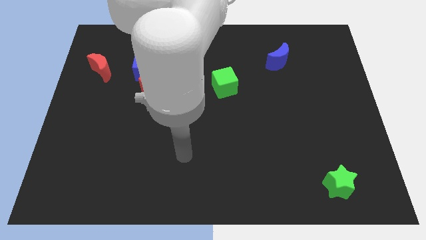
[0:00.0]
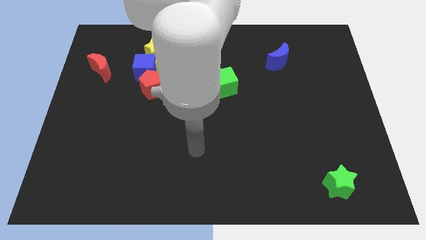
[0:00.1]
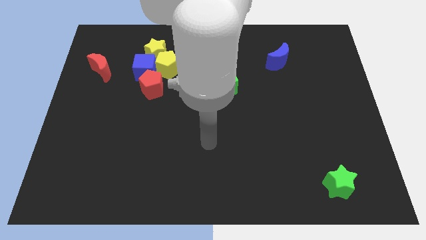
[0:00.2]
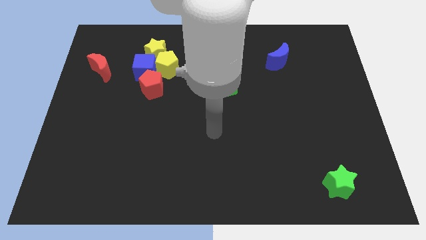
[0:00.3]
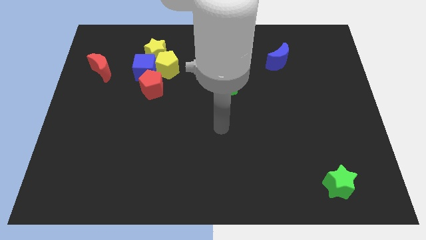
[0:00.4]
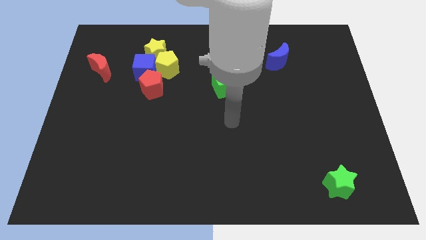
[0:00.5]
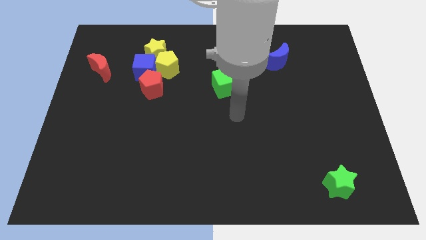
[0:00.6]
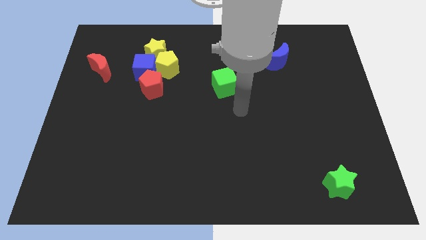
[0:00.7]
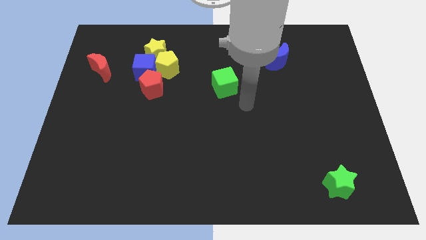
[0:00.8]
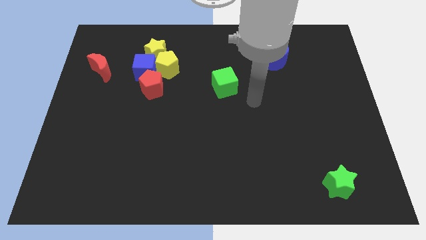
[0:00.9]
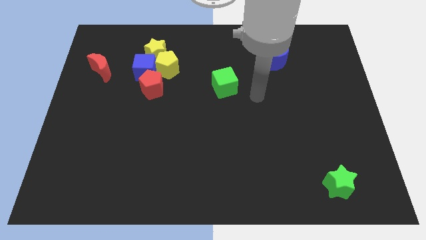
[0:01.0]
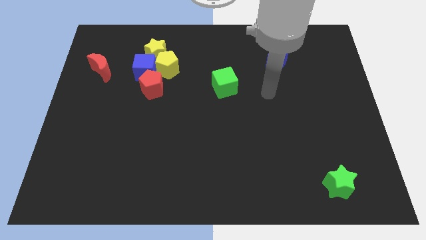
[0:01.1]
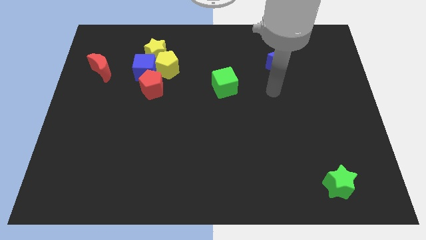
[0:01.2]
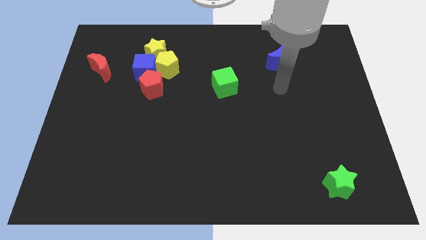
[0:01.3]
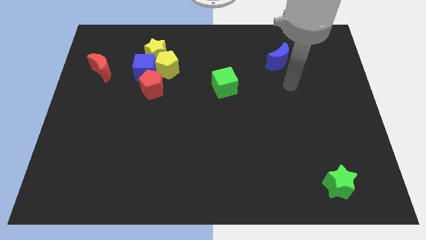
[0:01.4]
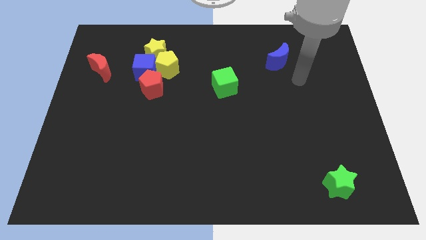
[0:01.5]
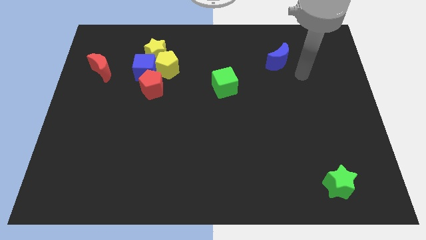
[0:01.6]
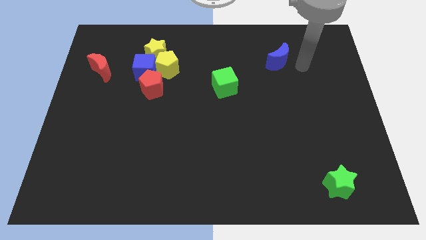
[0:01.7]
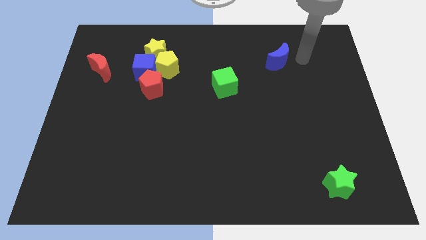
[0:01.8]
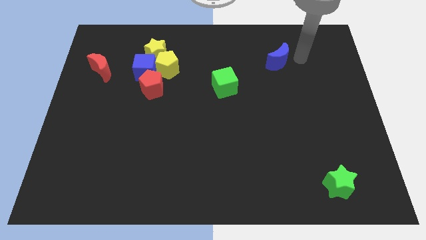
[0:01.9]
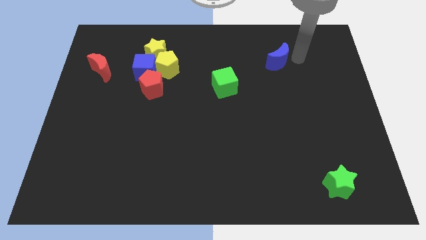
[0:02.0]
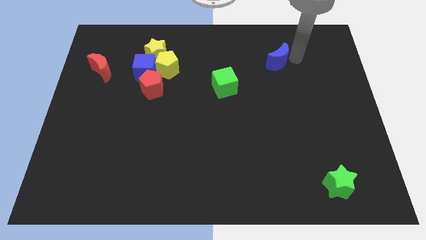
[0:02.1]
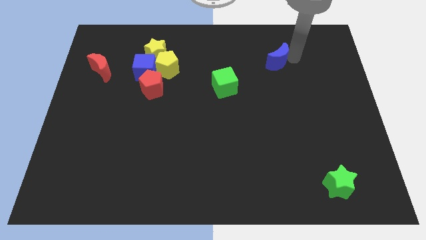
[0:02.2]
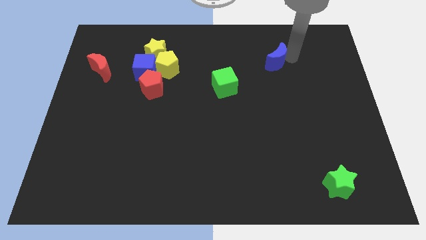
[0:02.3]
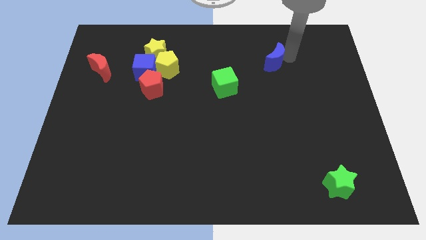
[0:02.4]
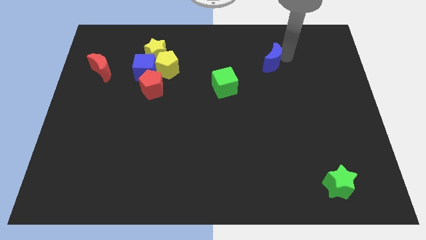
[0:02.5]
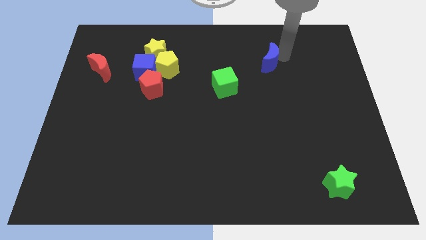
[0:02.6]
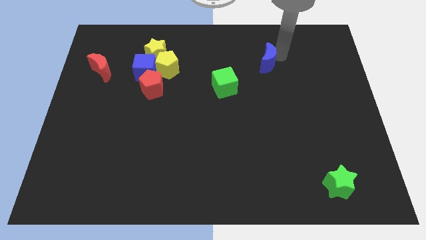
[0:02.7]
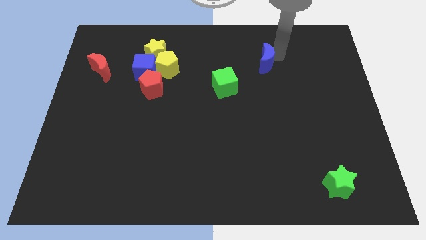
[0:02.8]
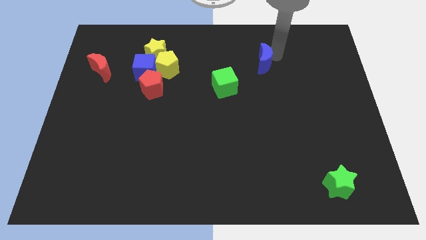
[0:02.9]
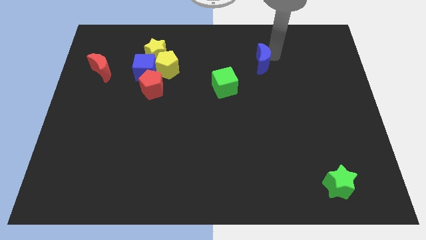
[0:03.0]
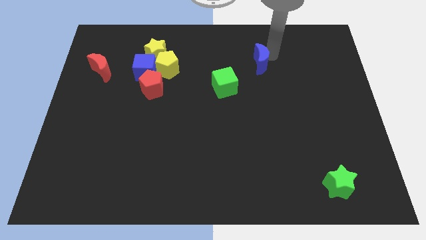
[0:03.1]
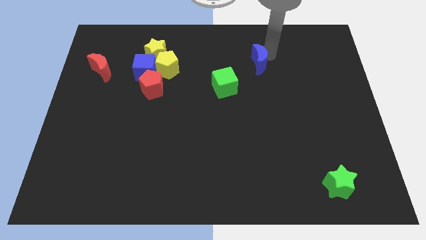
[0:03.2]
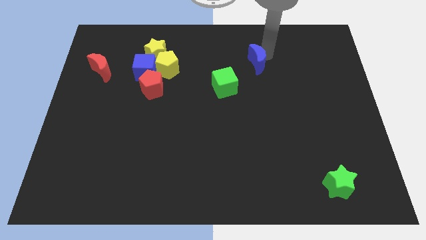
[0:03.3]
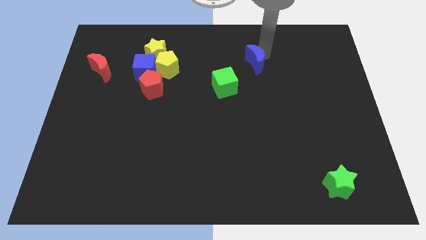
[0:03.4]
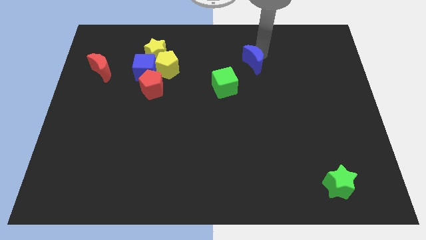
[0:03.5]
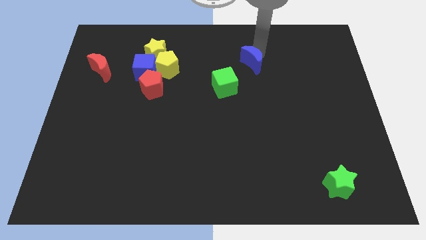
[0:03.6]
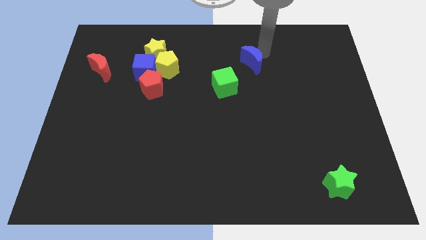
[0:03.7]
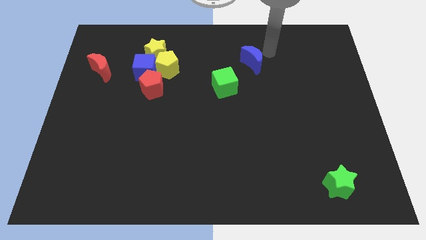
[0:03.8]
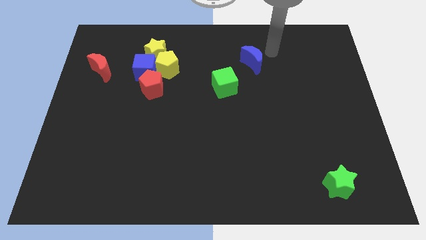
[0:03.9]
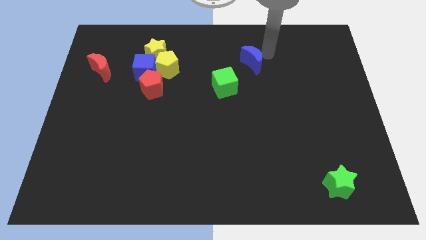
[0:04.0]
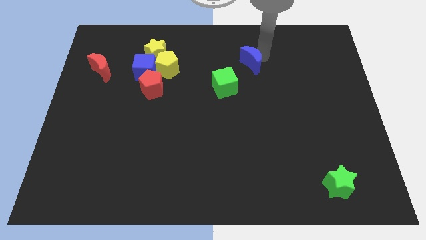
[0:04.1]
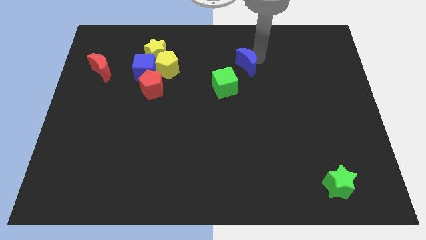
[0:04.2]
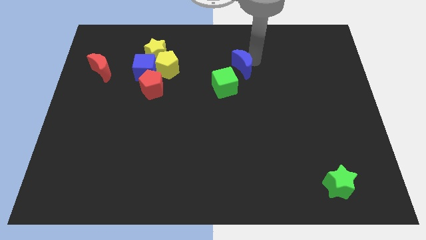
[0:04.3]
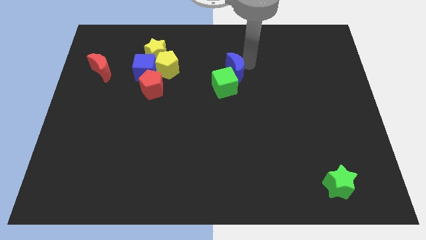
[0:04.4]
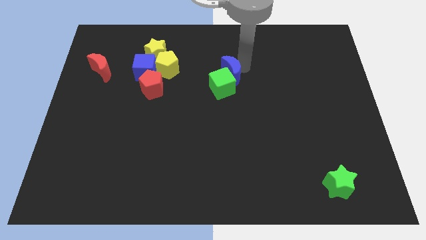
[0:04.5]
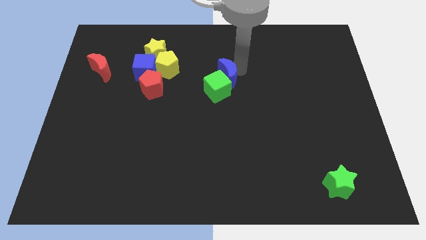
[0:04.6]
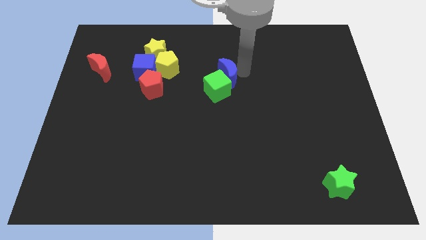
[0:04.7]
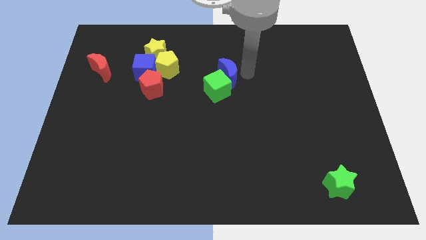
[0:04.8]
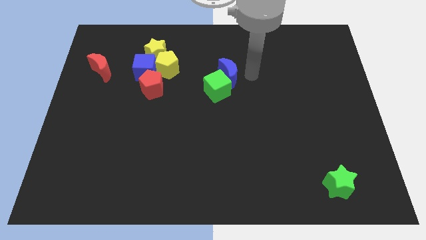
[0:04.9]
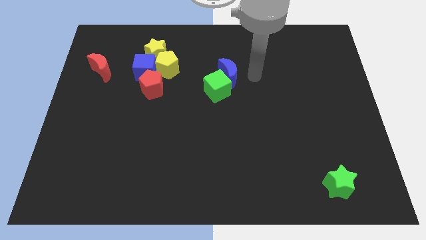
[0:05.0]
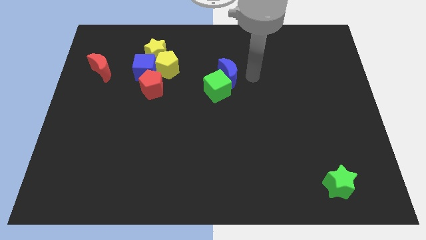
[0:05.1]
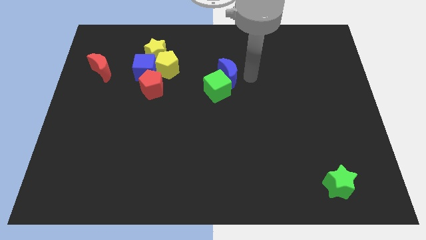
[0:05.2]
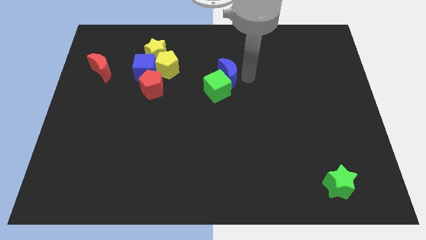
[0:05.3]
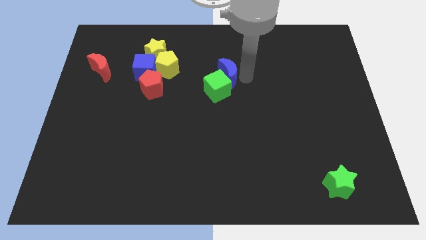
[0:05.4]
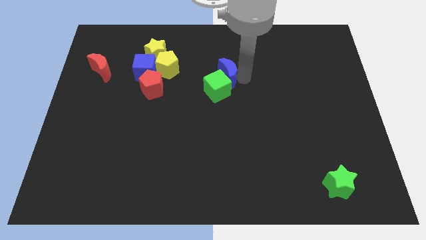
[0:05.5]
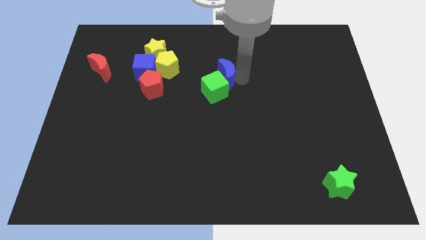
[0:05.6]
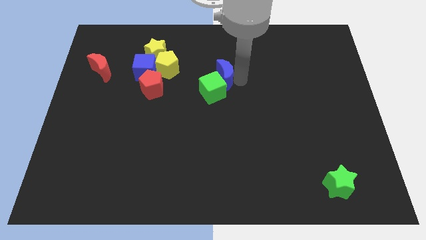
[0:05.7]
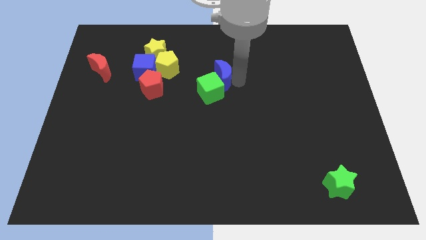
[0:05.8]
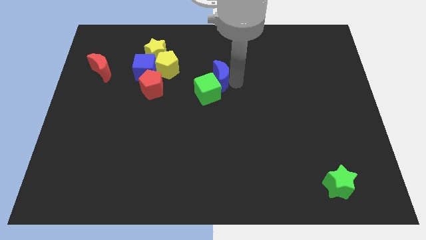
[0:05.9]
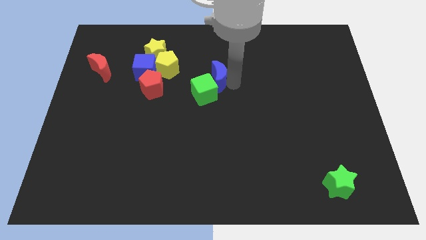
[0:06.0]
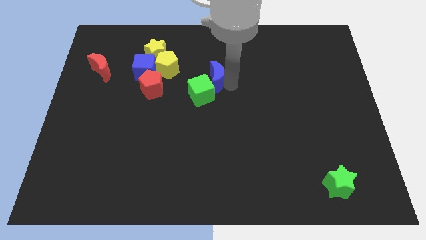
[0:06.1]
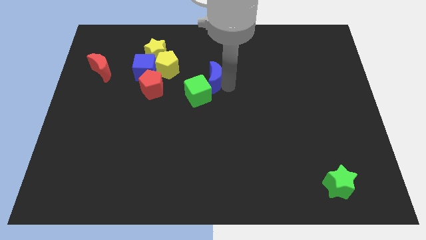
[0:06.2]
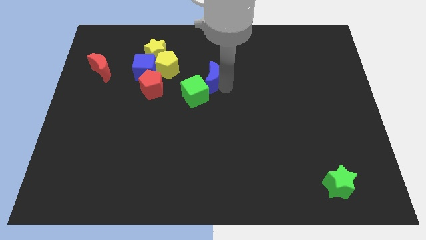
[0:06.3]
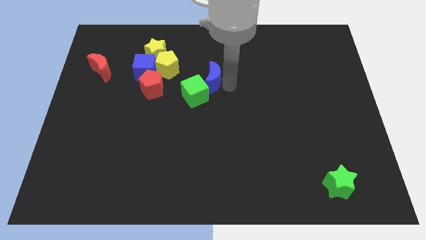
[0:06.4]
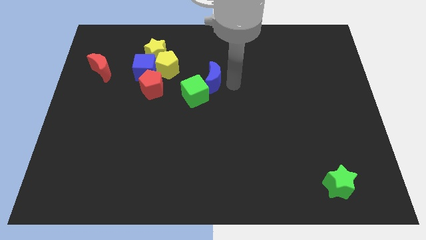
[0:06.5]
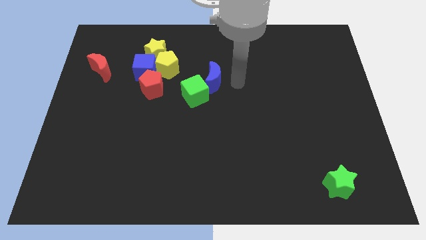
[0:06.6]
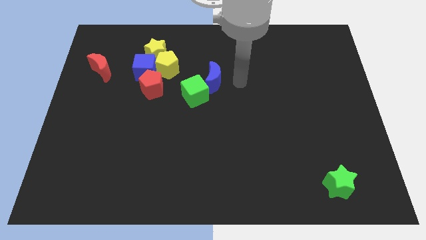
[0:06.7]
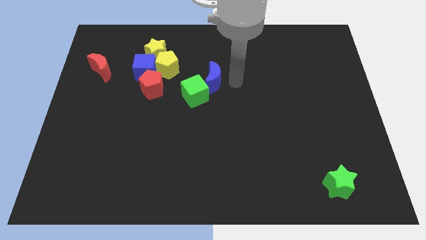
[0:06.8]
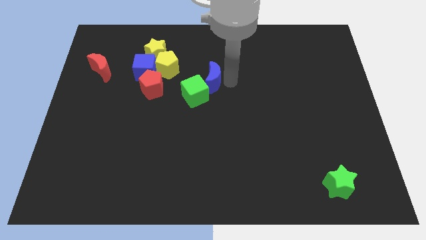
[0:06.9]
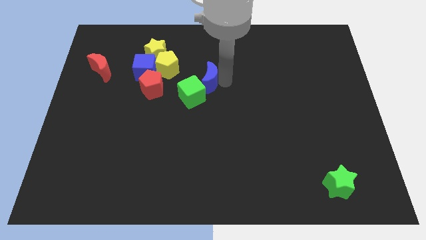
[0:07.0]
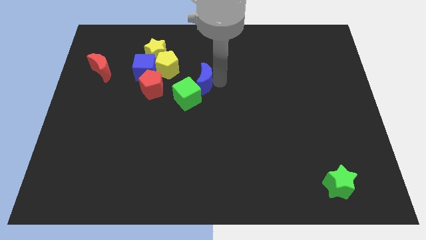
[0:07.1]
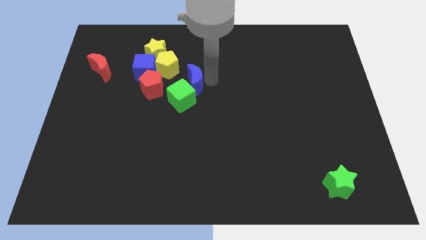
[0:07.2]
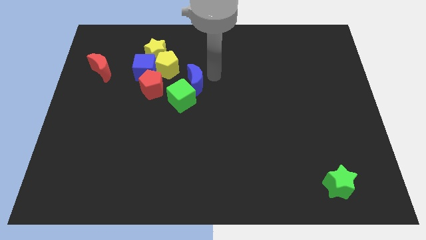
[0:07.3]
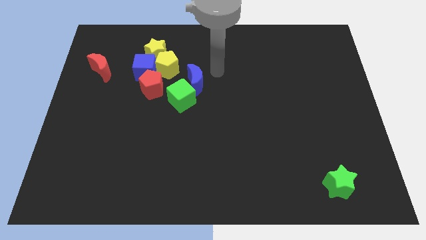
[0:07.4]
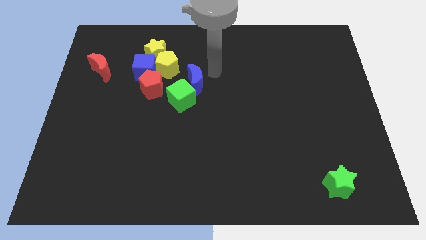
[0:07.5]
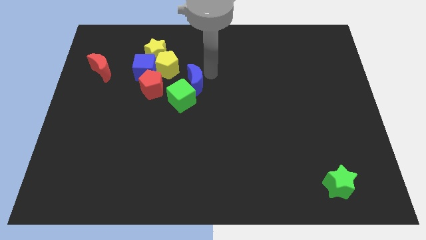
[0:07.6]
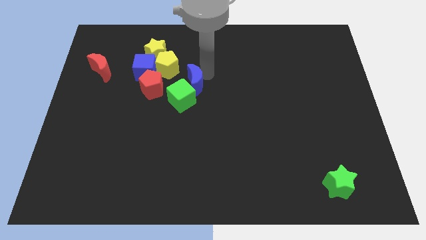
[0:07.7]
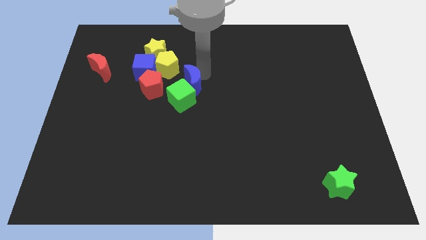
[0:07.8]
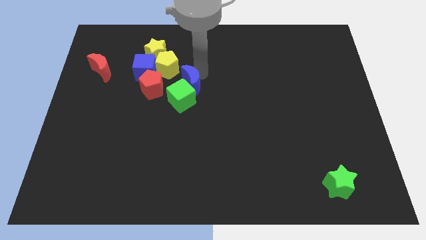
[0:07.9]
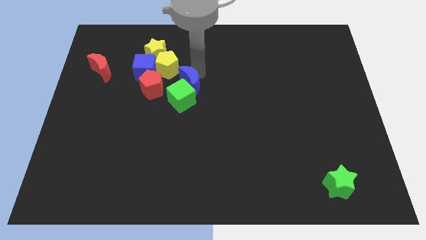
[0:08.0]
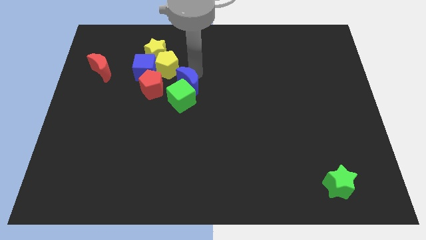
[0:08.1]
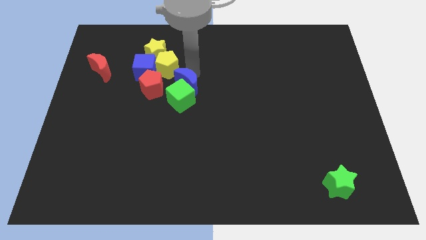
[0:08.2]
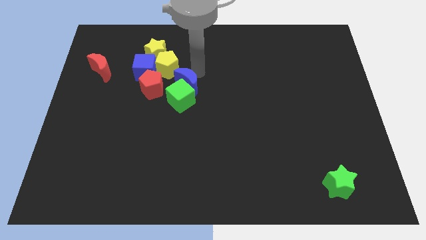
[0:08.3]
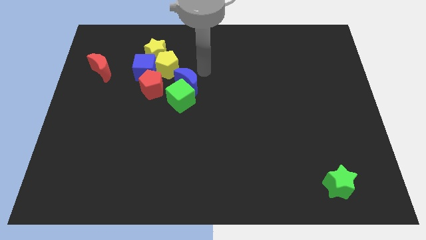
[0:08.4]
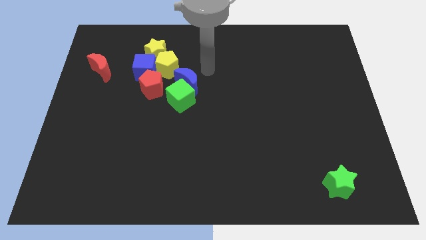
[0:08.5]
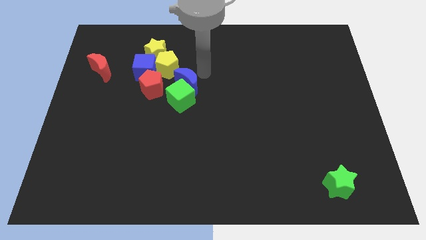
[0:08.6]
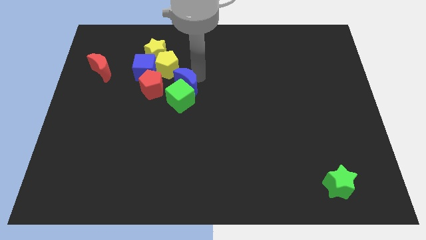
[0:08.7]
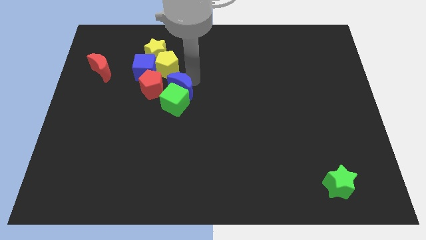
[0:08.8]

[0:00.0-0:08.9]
slide the blue moon below the yellow pentagon
